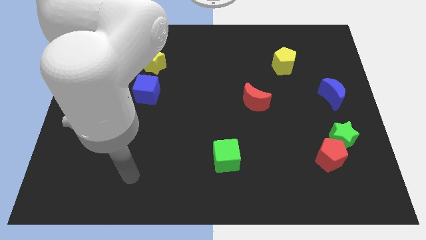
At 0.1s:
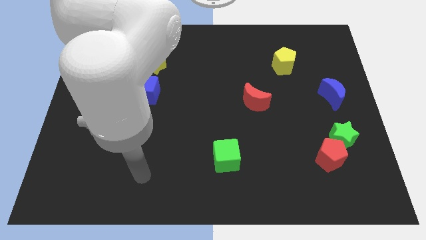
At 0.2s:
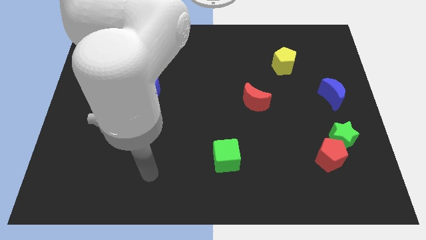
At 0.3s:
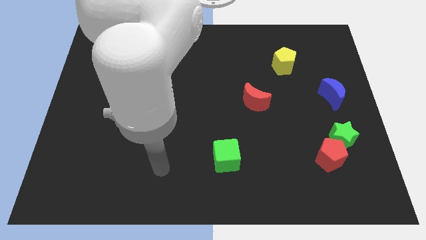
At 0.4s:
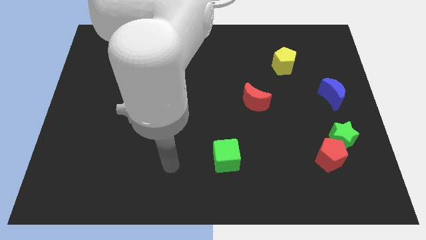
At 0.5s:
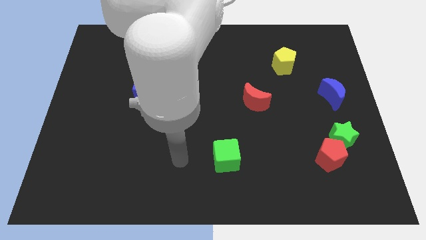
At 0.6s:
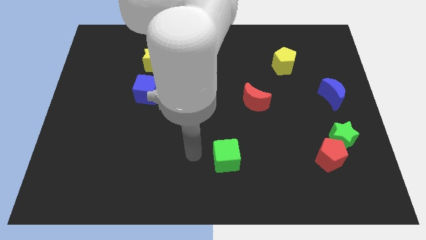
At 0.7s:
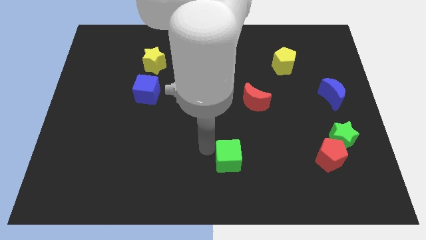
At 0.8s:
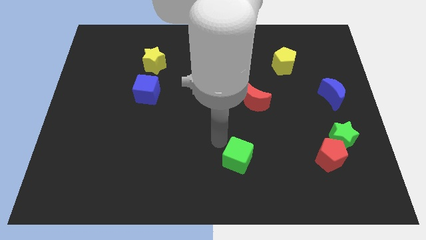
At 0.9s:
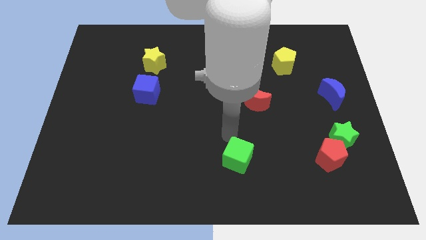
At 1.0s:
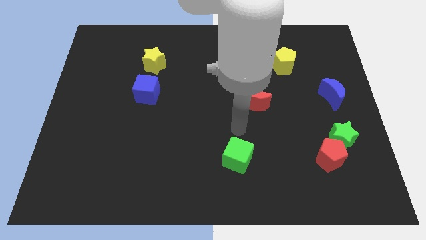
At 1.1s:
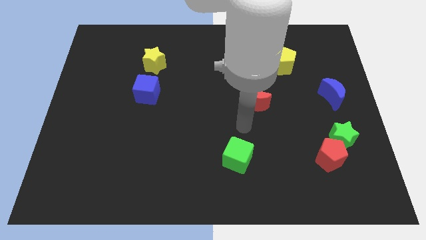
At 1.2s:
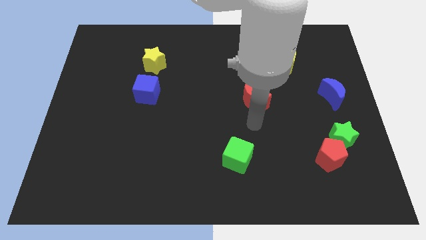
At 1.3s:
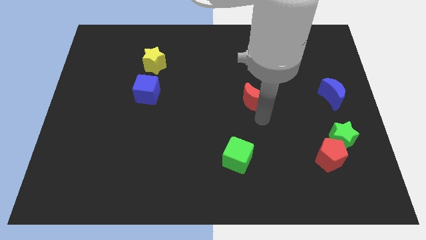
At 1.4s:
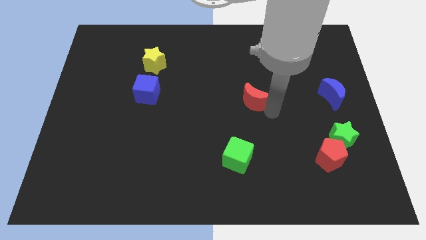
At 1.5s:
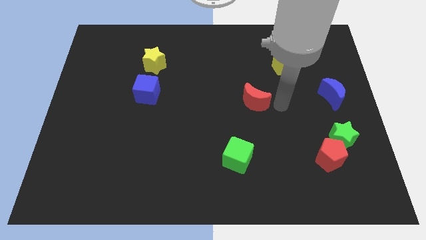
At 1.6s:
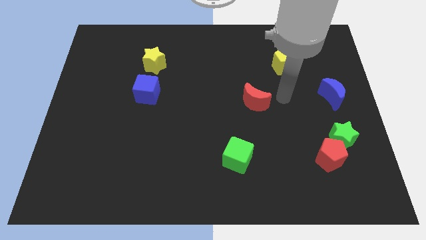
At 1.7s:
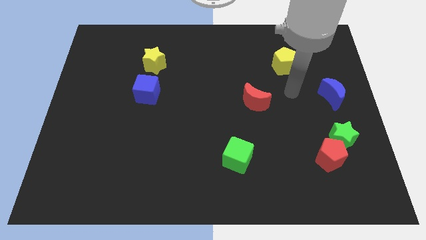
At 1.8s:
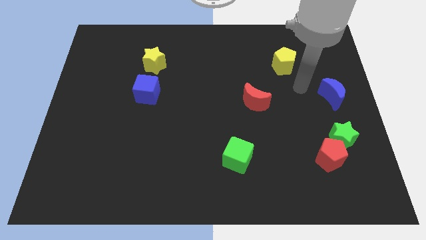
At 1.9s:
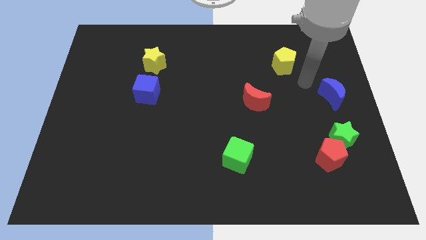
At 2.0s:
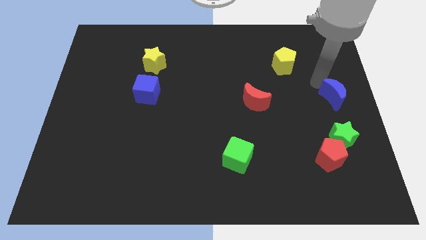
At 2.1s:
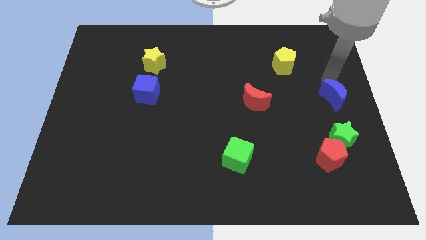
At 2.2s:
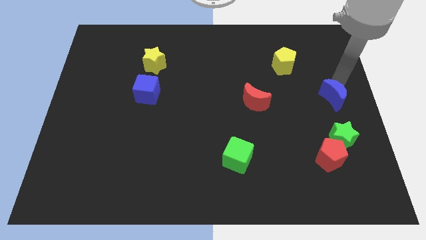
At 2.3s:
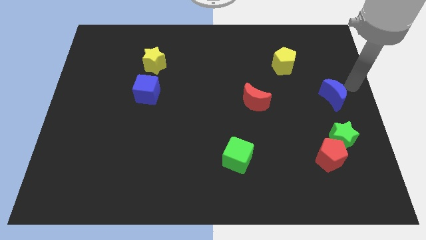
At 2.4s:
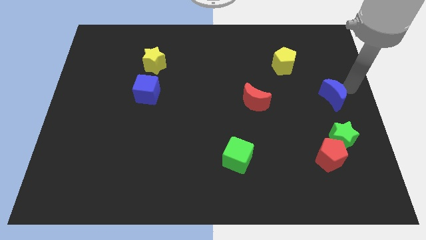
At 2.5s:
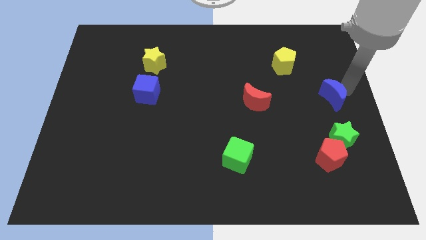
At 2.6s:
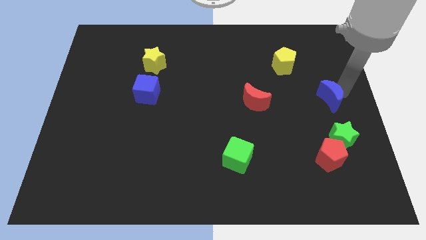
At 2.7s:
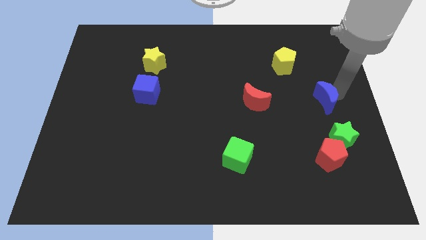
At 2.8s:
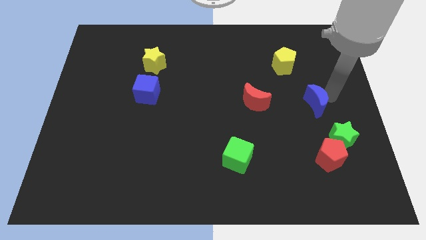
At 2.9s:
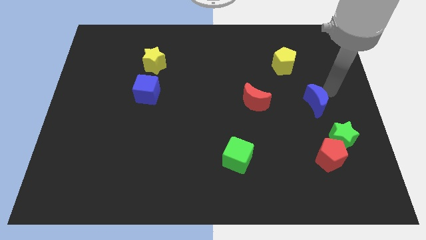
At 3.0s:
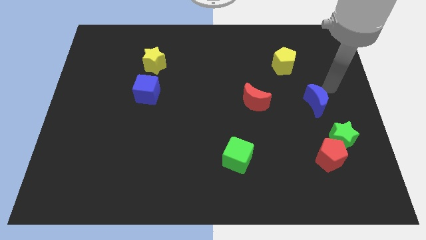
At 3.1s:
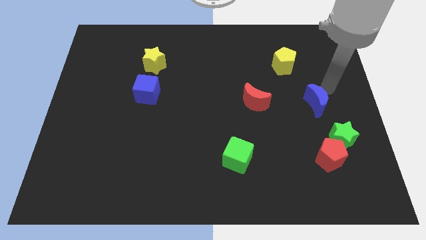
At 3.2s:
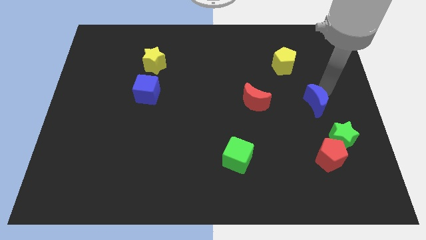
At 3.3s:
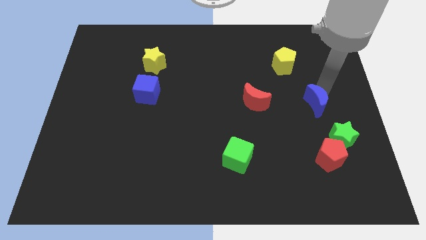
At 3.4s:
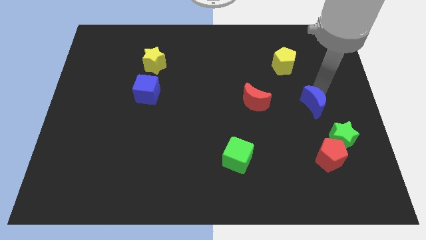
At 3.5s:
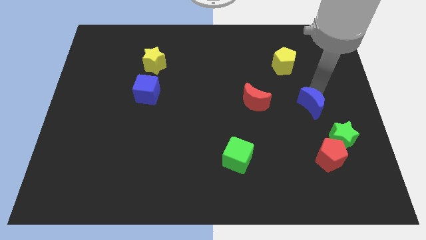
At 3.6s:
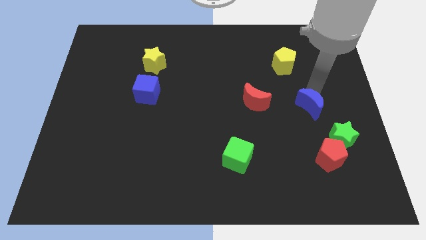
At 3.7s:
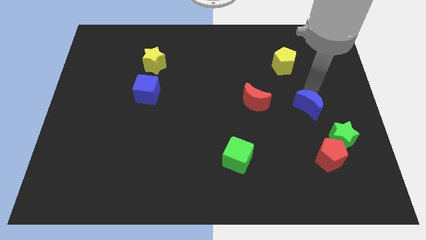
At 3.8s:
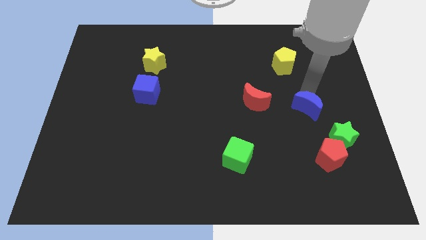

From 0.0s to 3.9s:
push the blue moon diagonally down and to the left somewhat

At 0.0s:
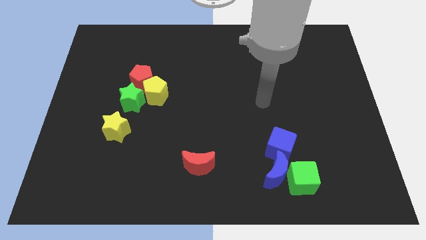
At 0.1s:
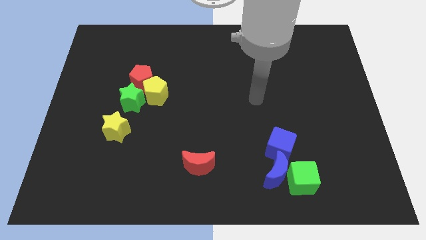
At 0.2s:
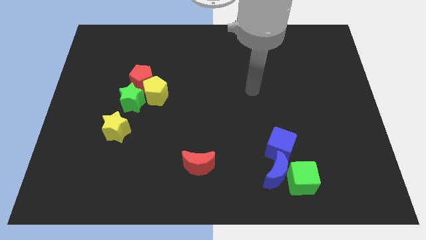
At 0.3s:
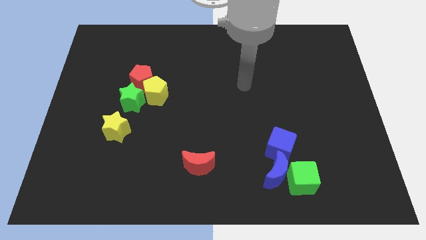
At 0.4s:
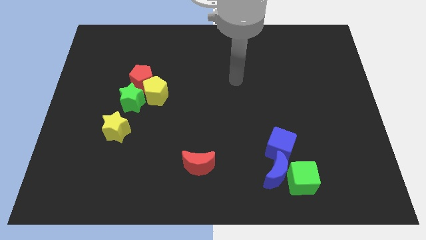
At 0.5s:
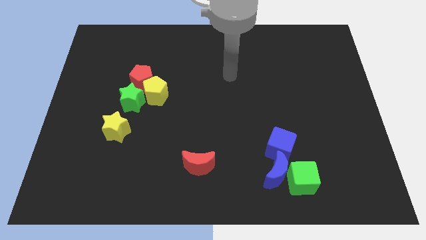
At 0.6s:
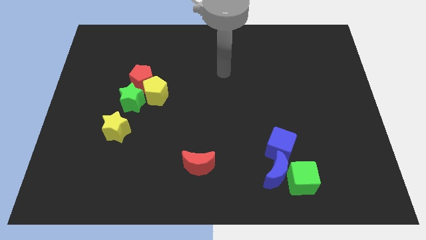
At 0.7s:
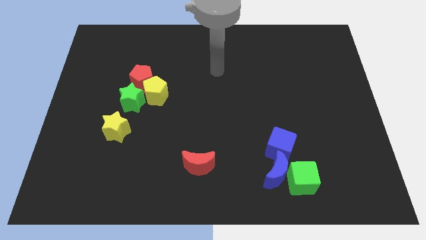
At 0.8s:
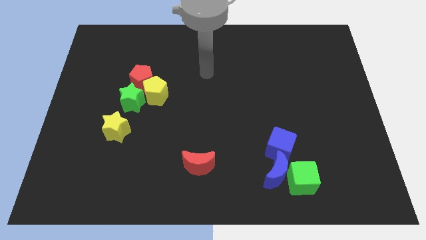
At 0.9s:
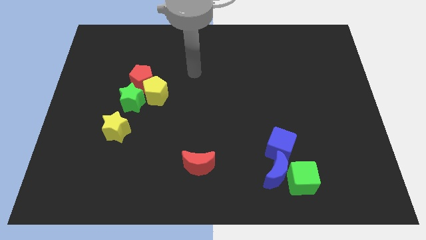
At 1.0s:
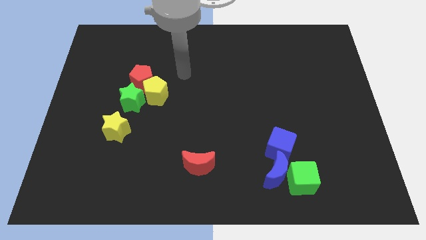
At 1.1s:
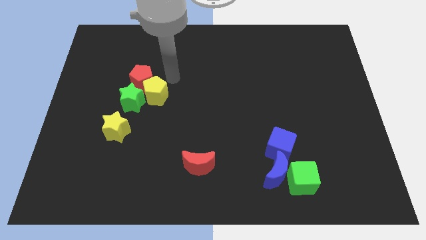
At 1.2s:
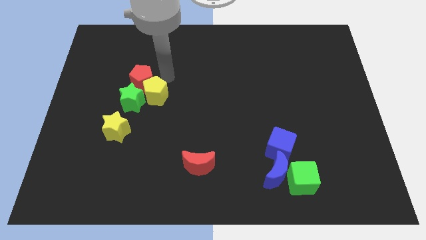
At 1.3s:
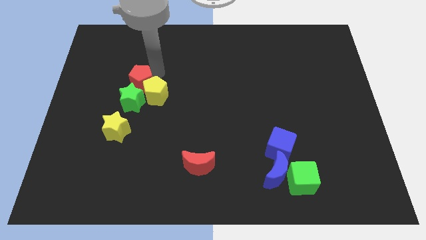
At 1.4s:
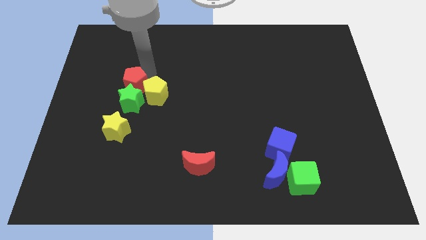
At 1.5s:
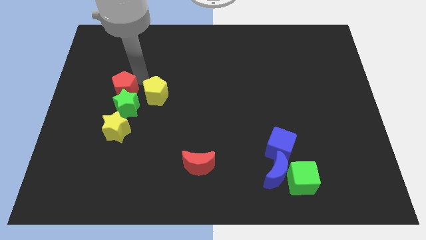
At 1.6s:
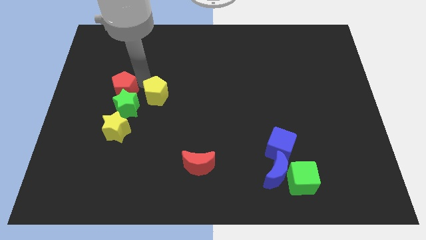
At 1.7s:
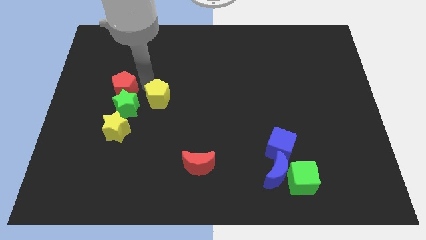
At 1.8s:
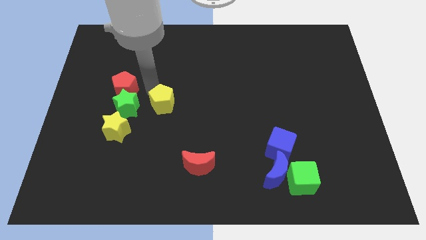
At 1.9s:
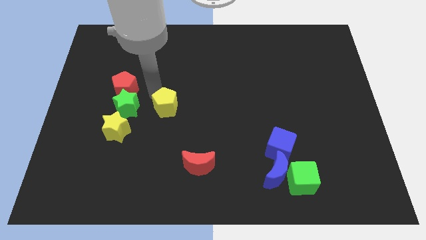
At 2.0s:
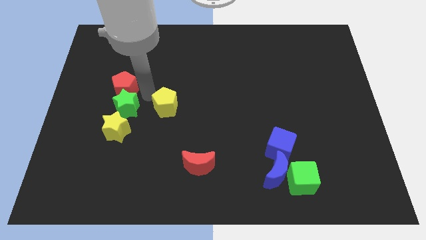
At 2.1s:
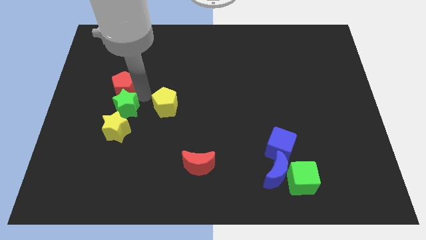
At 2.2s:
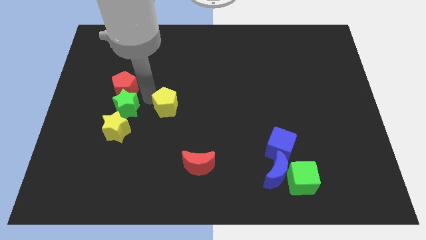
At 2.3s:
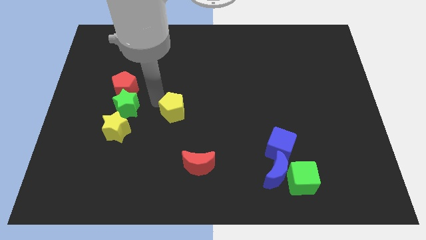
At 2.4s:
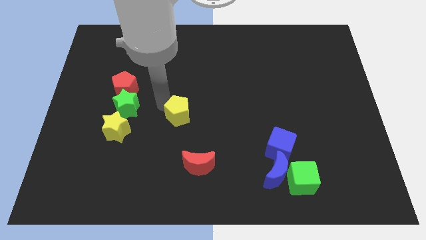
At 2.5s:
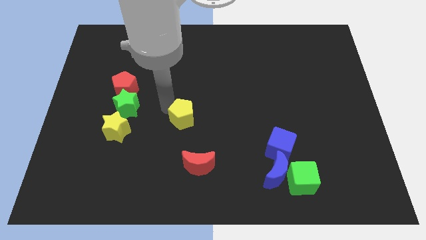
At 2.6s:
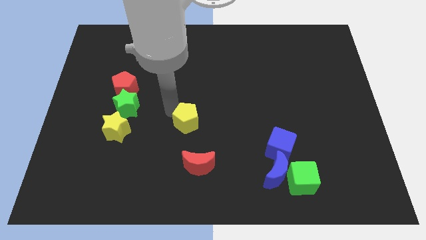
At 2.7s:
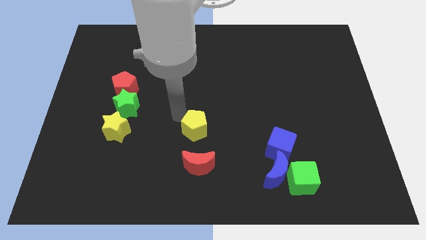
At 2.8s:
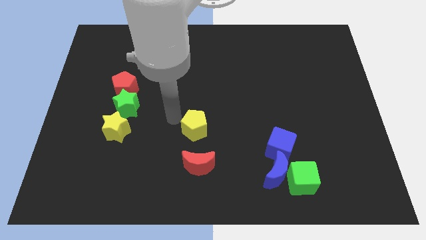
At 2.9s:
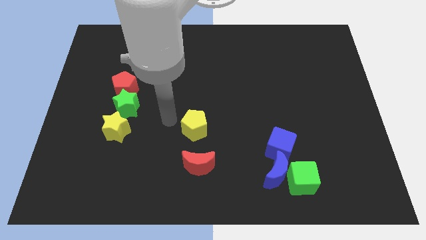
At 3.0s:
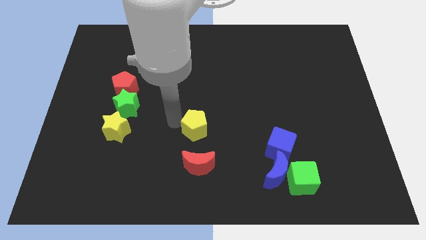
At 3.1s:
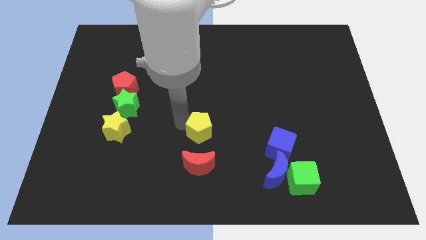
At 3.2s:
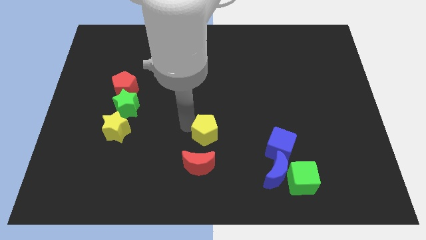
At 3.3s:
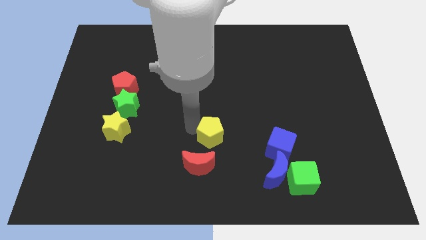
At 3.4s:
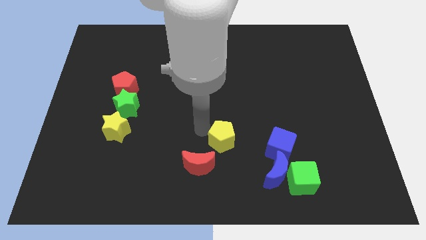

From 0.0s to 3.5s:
move the yellow pentagon down and right

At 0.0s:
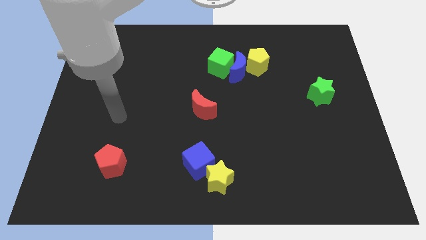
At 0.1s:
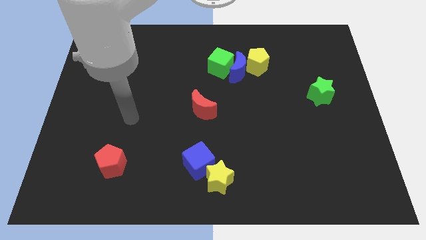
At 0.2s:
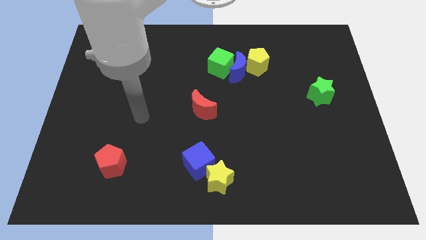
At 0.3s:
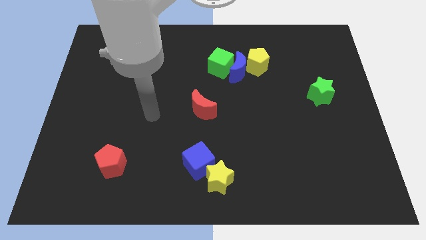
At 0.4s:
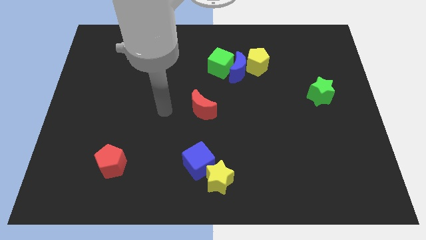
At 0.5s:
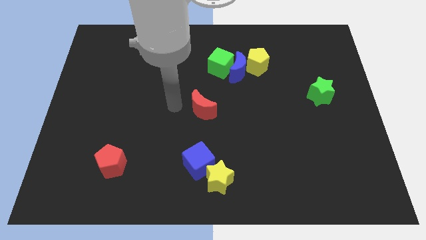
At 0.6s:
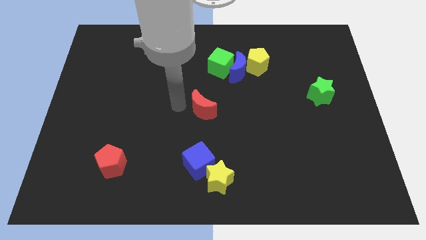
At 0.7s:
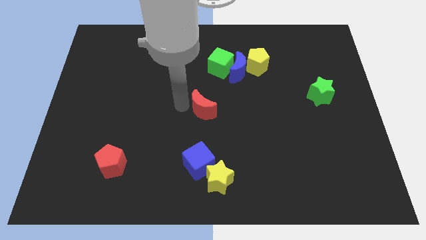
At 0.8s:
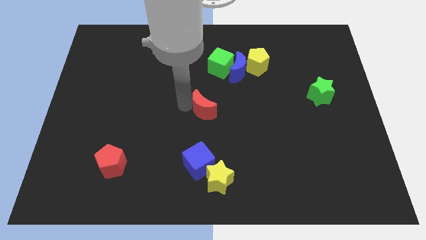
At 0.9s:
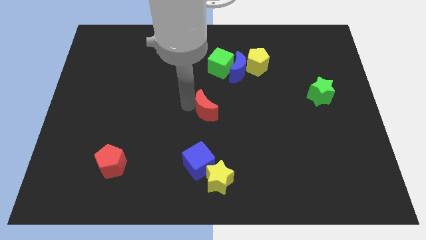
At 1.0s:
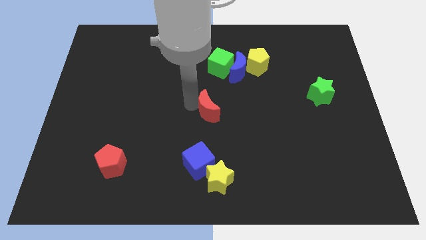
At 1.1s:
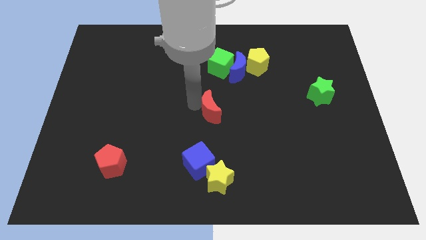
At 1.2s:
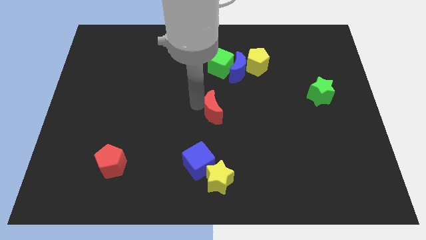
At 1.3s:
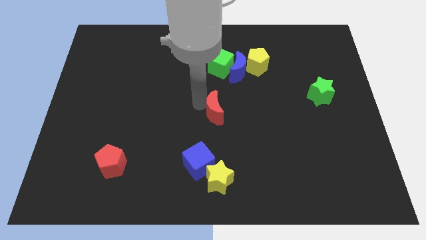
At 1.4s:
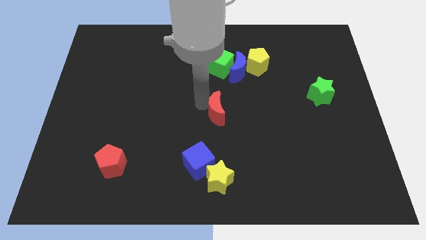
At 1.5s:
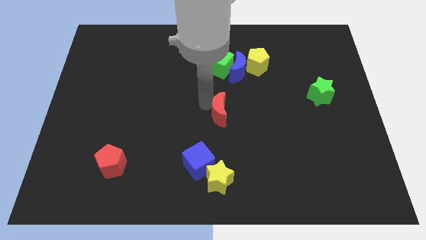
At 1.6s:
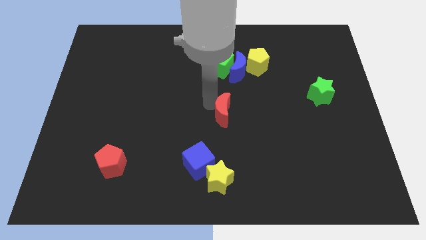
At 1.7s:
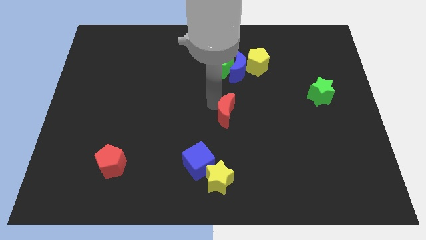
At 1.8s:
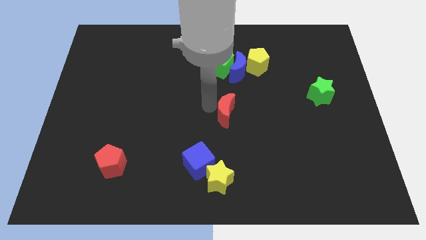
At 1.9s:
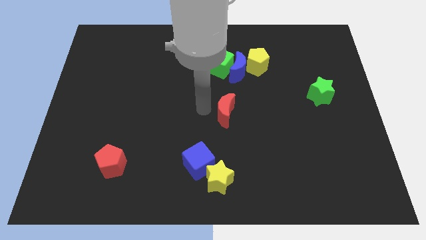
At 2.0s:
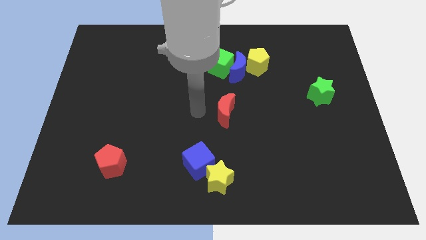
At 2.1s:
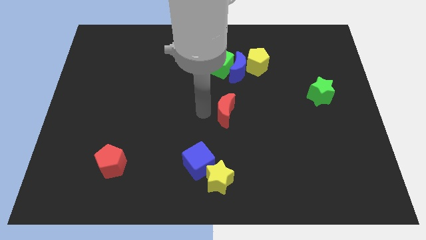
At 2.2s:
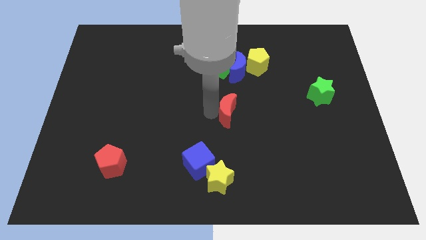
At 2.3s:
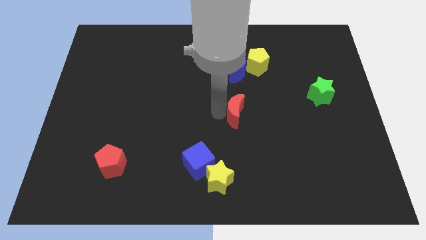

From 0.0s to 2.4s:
move the red moon right somewhat
